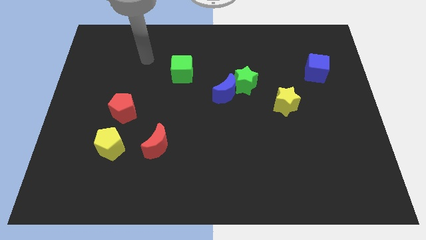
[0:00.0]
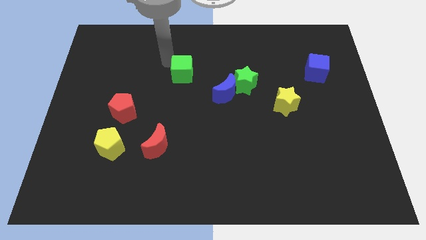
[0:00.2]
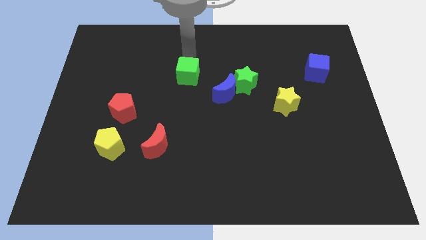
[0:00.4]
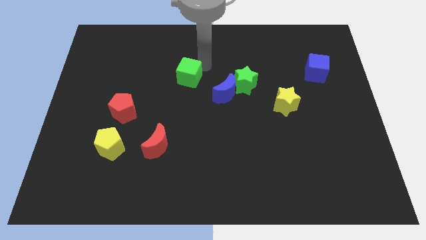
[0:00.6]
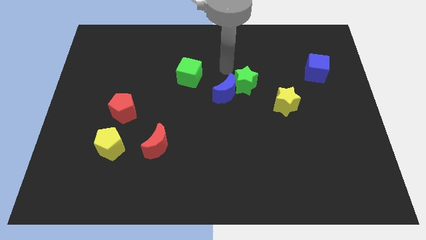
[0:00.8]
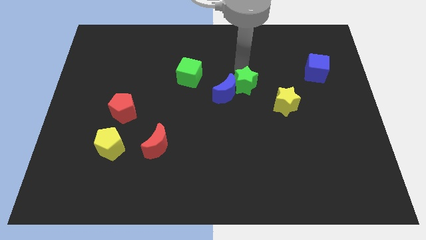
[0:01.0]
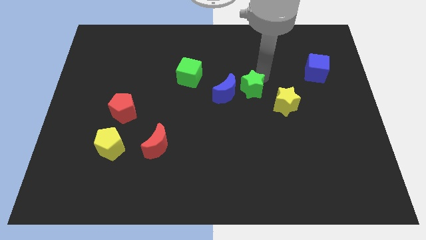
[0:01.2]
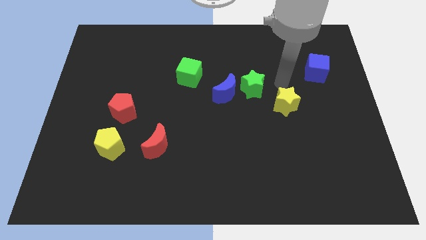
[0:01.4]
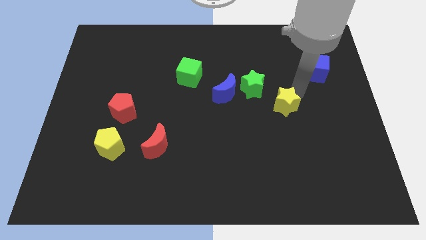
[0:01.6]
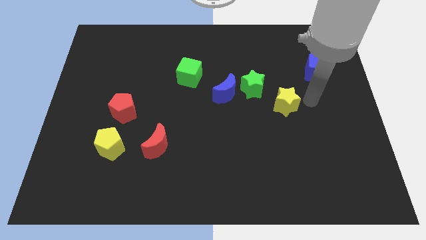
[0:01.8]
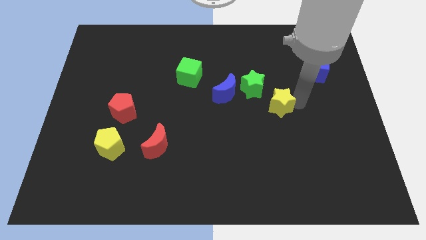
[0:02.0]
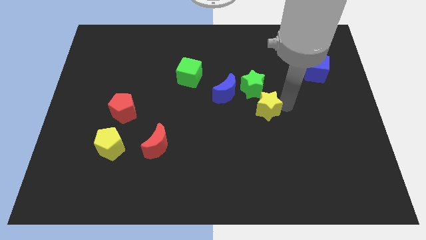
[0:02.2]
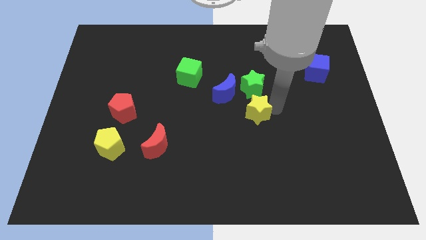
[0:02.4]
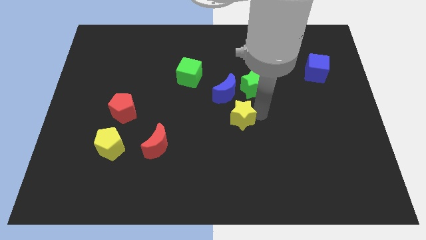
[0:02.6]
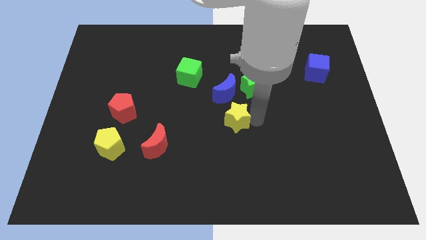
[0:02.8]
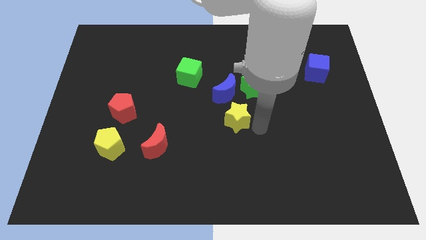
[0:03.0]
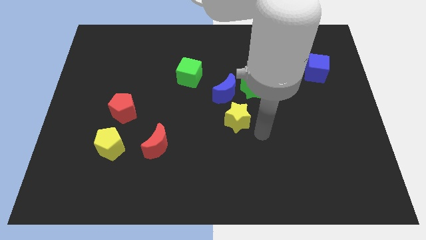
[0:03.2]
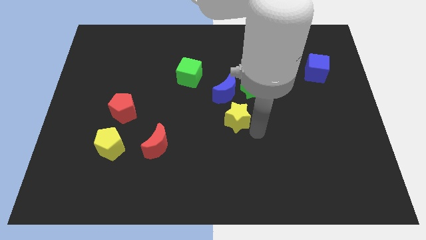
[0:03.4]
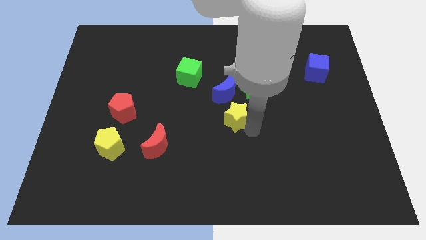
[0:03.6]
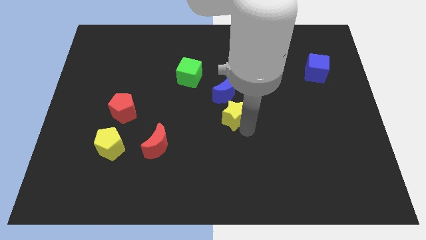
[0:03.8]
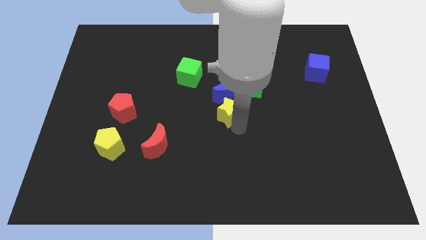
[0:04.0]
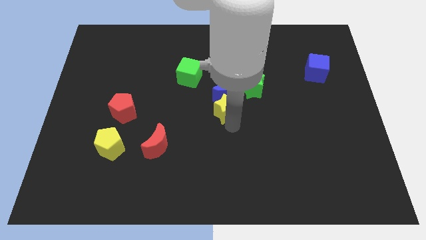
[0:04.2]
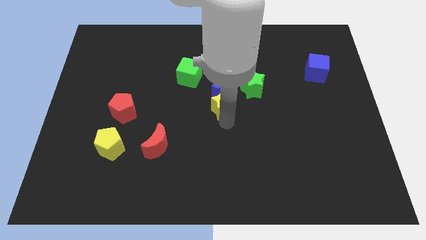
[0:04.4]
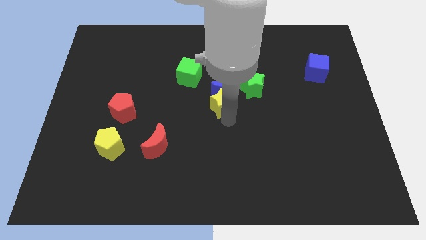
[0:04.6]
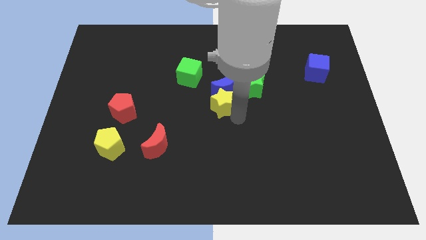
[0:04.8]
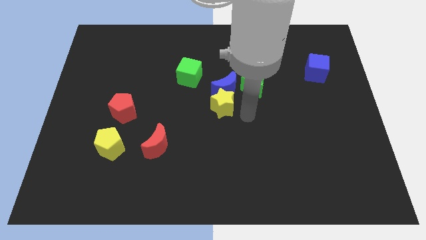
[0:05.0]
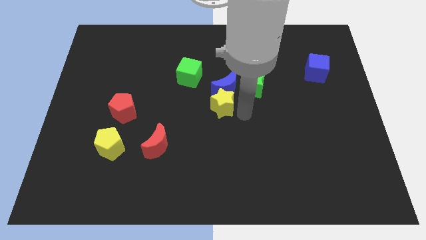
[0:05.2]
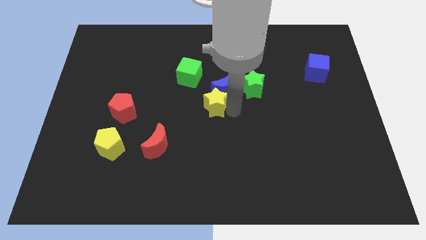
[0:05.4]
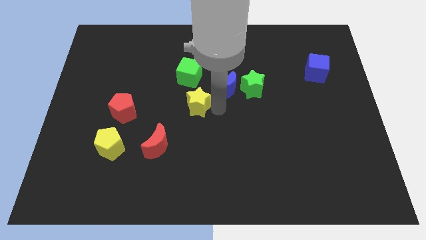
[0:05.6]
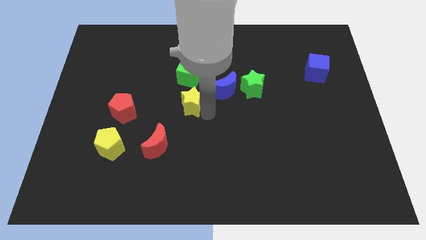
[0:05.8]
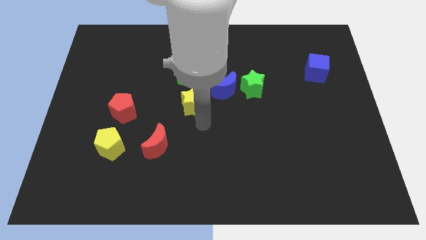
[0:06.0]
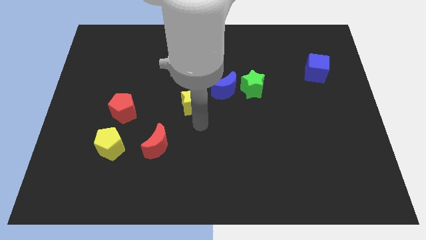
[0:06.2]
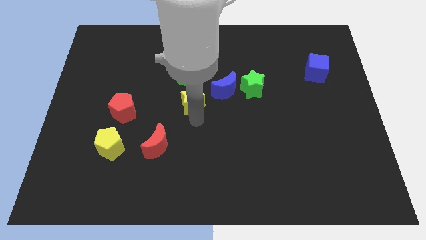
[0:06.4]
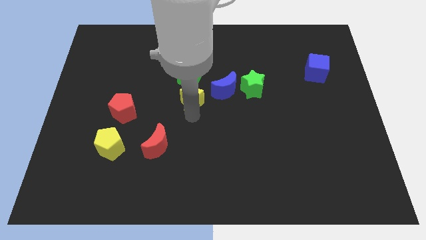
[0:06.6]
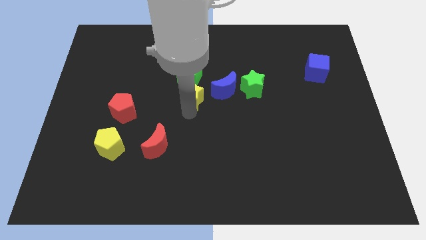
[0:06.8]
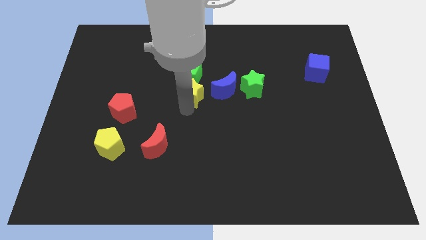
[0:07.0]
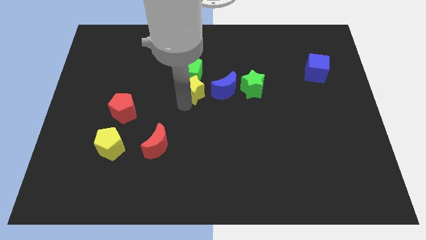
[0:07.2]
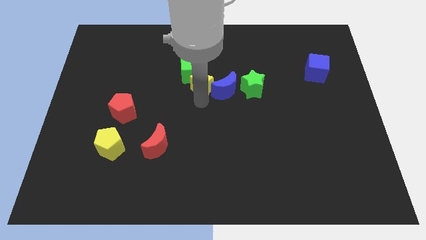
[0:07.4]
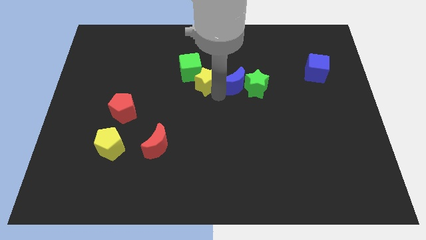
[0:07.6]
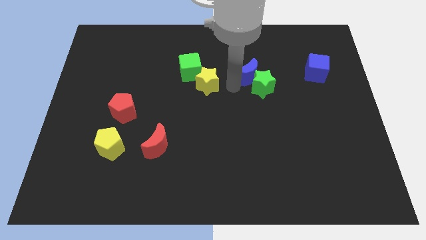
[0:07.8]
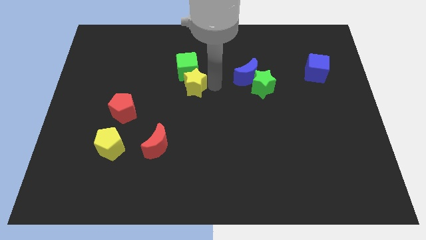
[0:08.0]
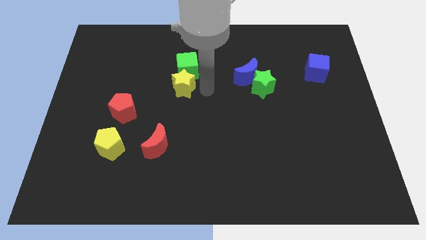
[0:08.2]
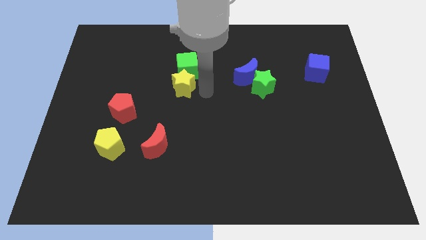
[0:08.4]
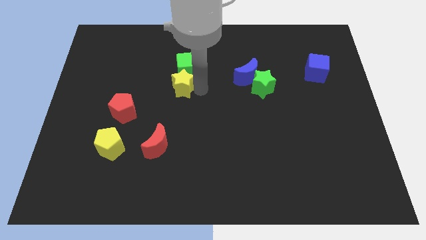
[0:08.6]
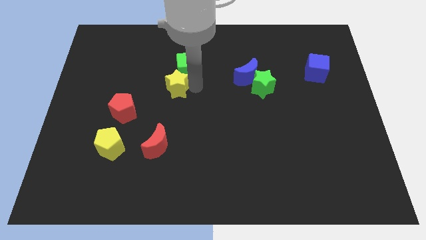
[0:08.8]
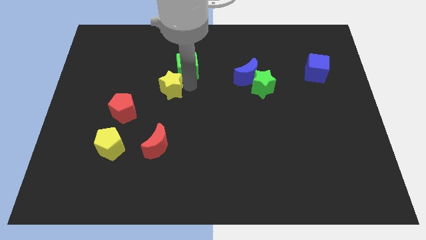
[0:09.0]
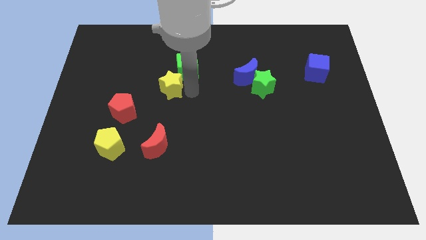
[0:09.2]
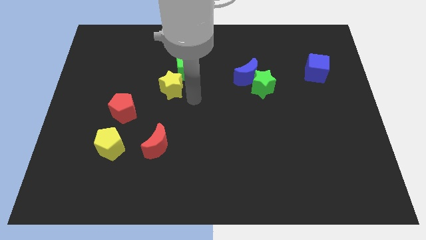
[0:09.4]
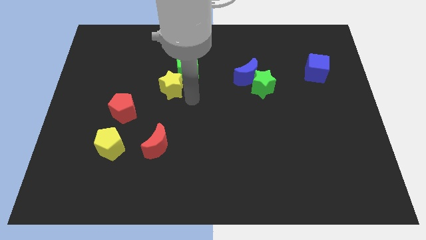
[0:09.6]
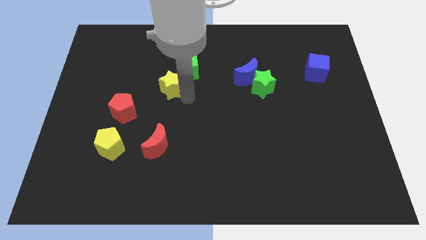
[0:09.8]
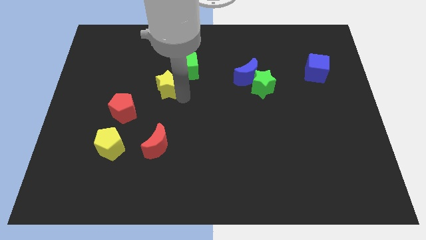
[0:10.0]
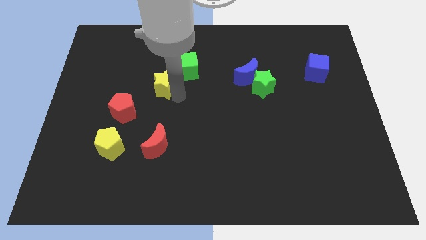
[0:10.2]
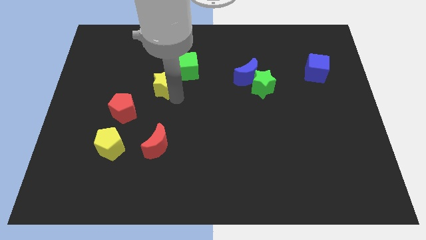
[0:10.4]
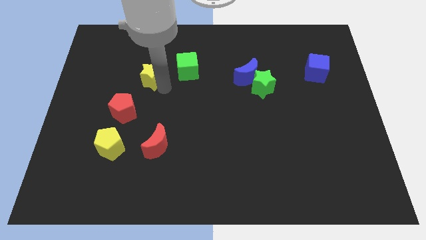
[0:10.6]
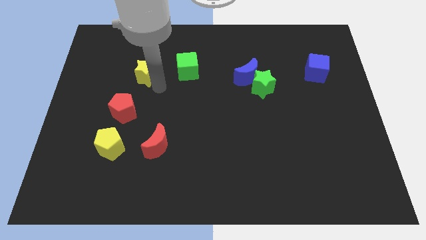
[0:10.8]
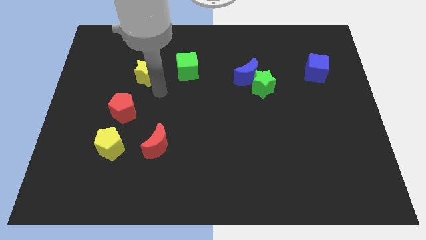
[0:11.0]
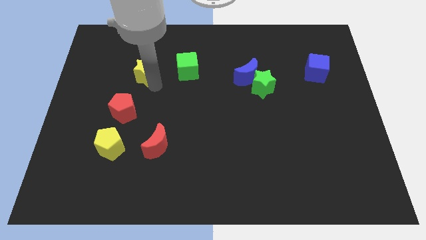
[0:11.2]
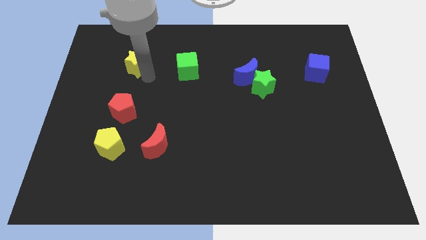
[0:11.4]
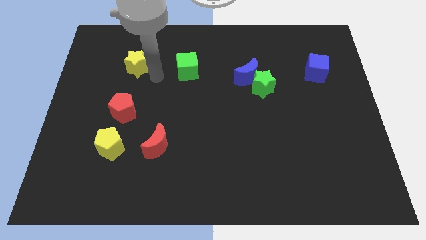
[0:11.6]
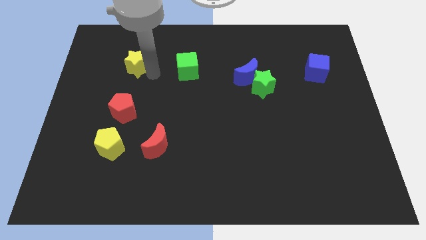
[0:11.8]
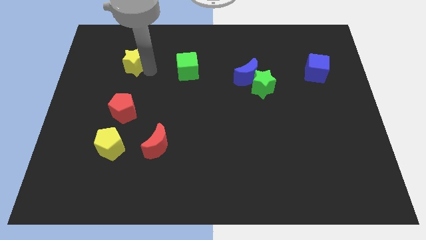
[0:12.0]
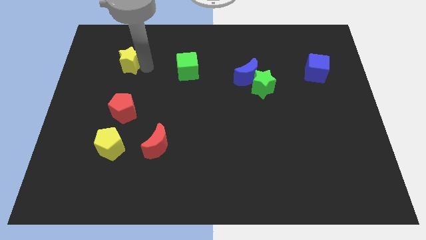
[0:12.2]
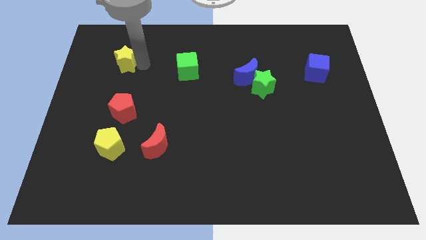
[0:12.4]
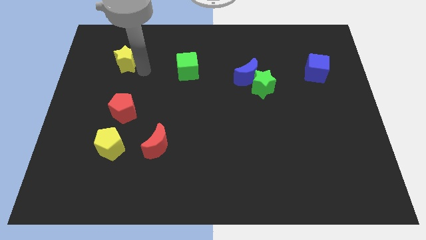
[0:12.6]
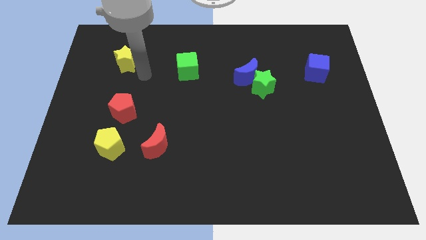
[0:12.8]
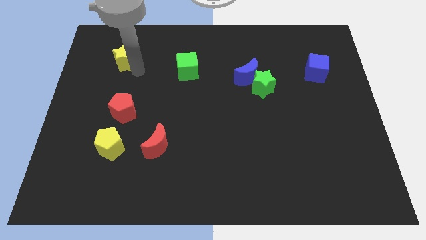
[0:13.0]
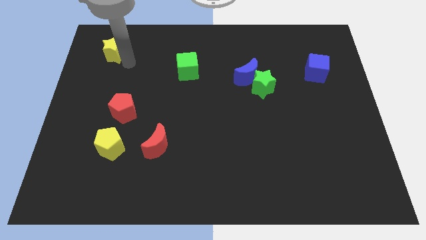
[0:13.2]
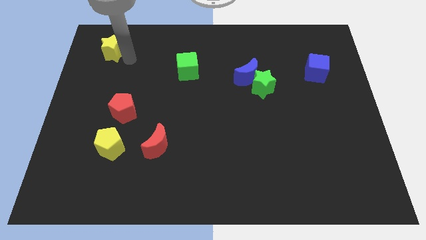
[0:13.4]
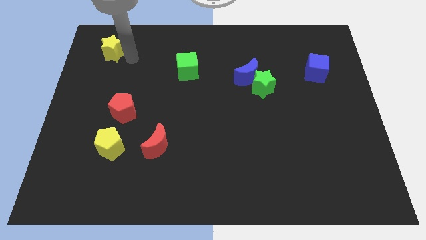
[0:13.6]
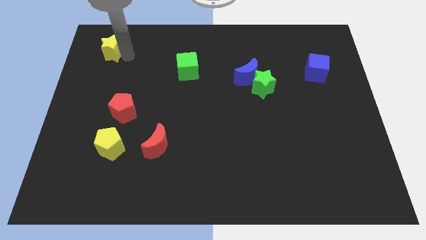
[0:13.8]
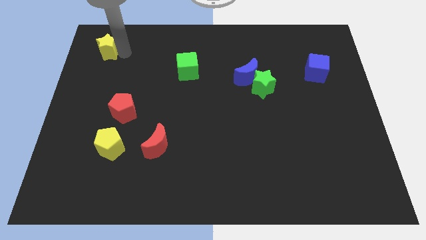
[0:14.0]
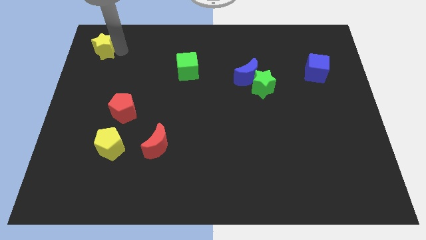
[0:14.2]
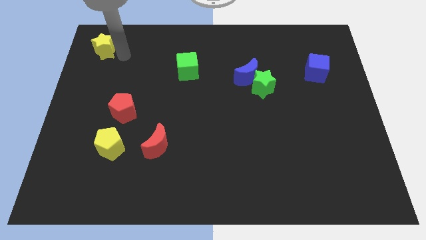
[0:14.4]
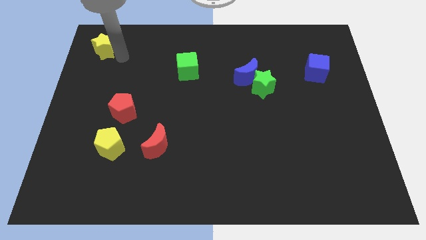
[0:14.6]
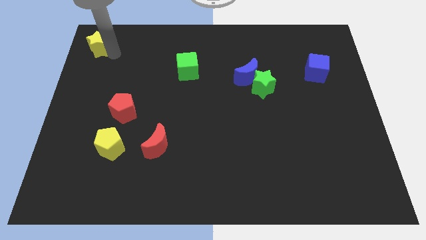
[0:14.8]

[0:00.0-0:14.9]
put the yellow star to the upper left corner
